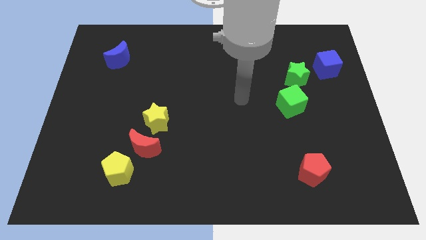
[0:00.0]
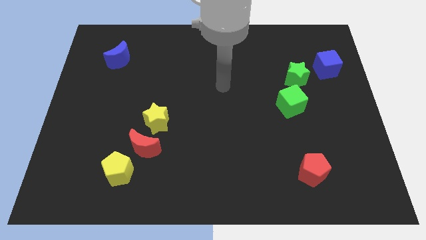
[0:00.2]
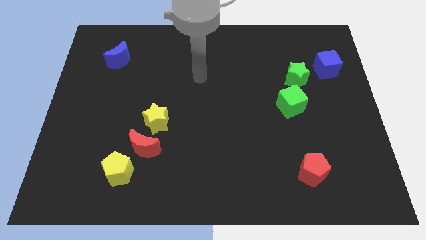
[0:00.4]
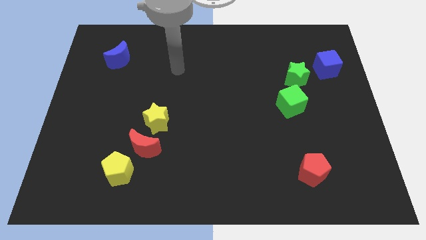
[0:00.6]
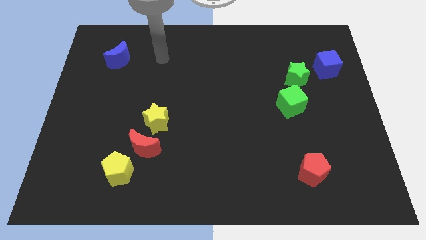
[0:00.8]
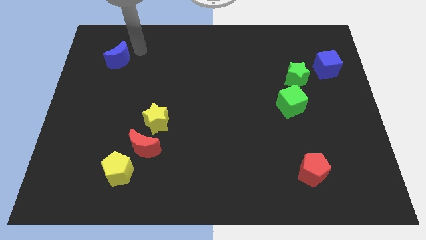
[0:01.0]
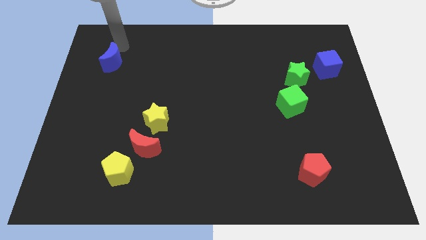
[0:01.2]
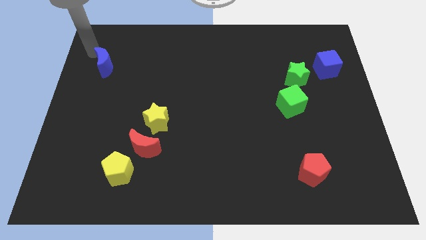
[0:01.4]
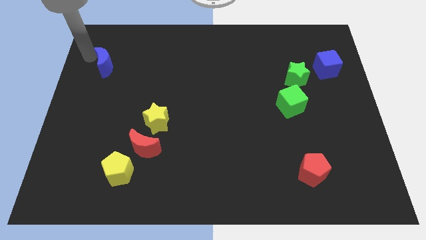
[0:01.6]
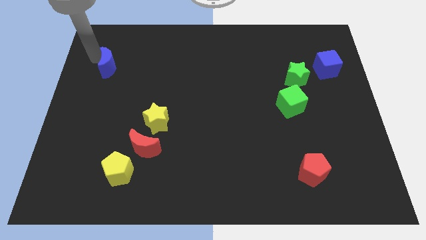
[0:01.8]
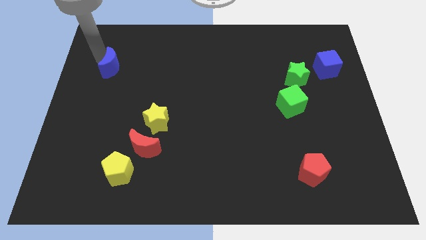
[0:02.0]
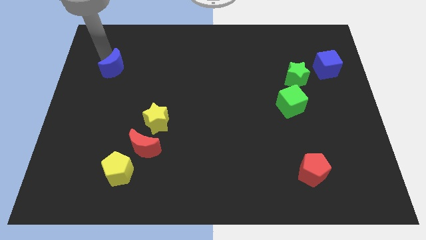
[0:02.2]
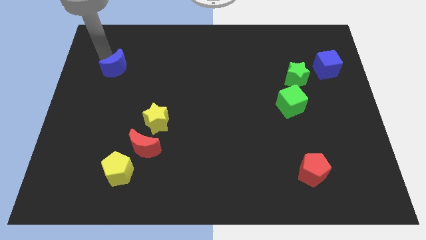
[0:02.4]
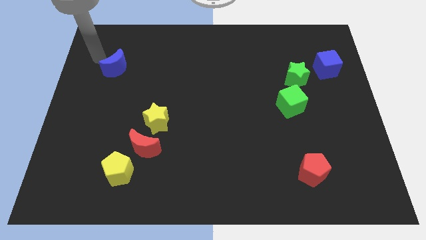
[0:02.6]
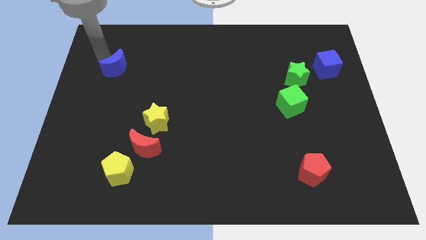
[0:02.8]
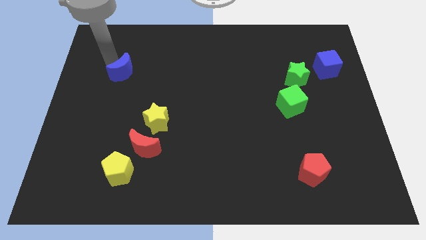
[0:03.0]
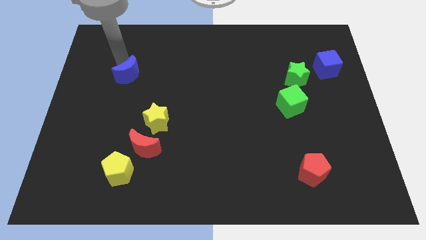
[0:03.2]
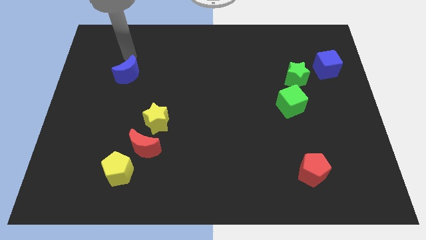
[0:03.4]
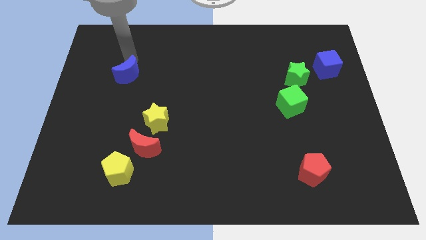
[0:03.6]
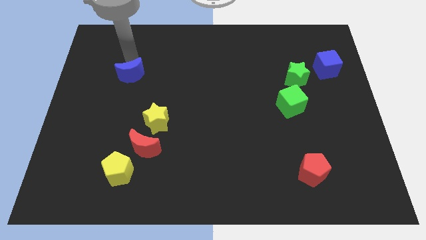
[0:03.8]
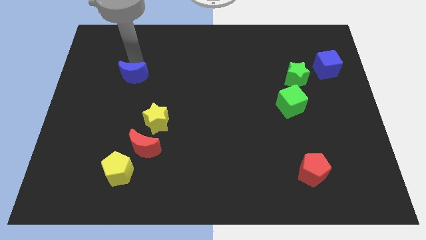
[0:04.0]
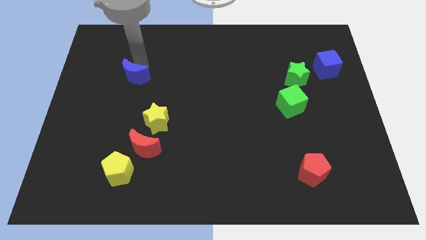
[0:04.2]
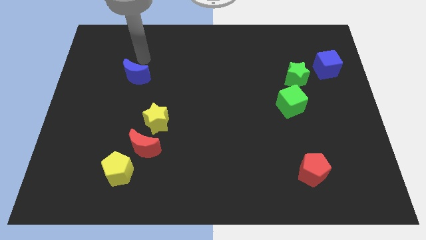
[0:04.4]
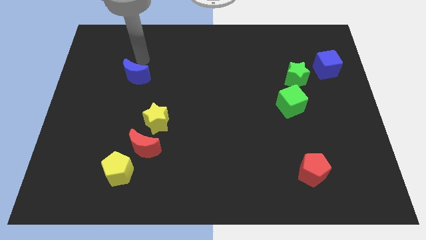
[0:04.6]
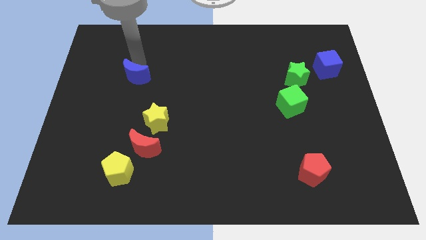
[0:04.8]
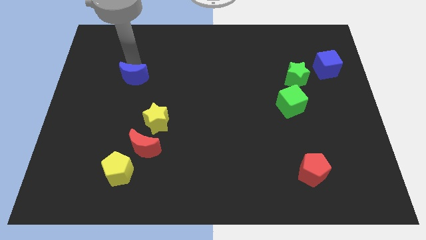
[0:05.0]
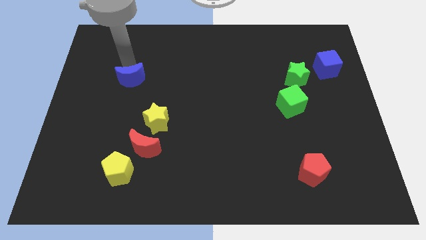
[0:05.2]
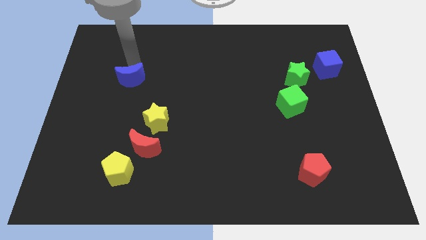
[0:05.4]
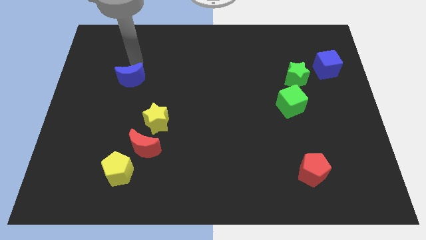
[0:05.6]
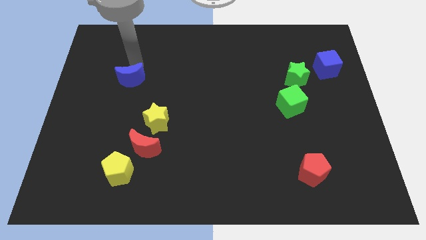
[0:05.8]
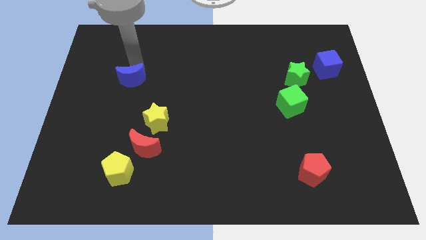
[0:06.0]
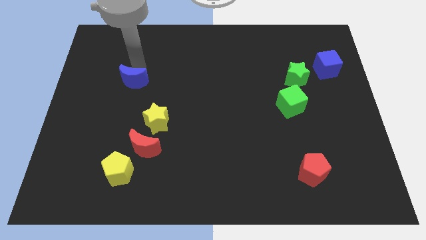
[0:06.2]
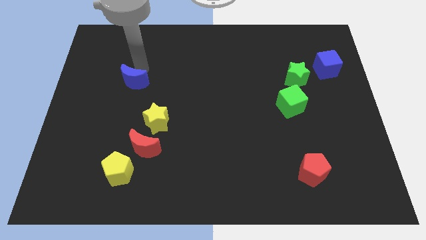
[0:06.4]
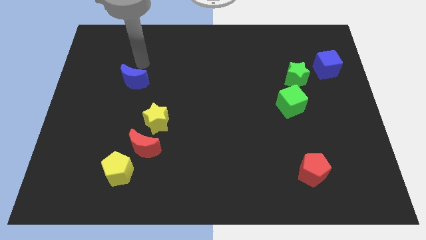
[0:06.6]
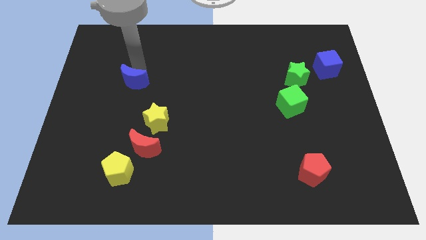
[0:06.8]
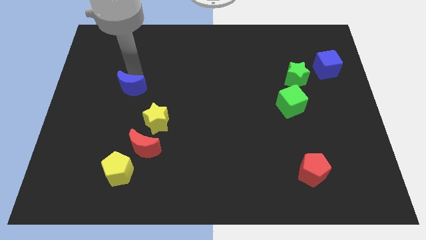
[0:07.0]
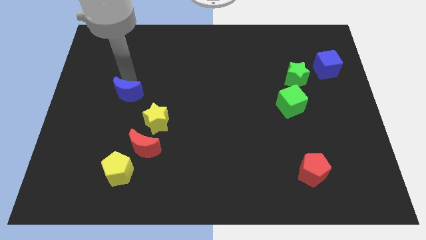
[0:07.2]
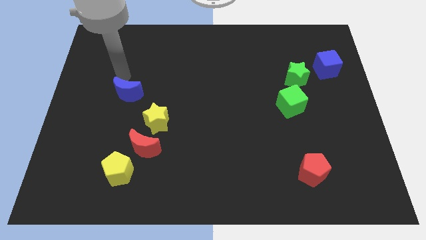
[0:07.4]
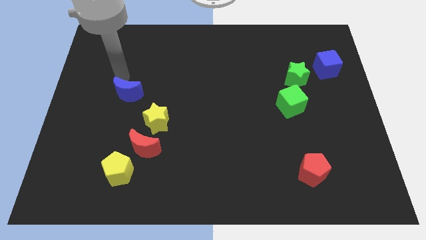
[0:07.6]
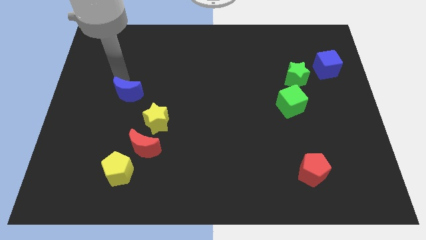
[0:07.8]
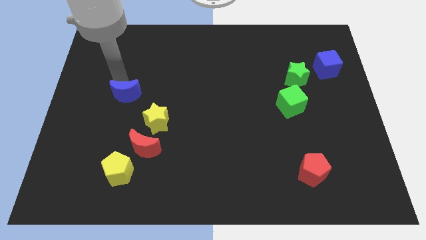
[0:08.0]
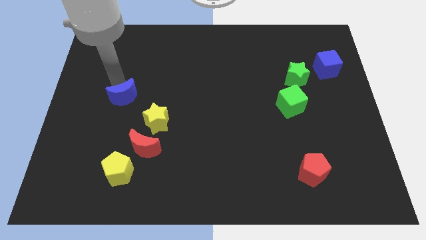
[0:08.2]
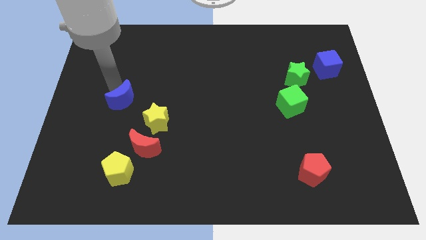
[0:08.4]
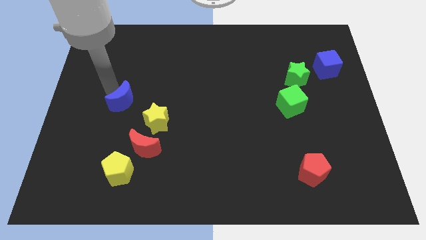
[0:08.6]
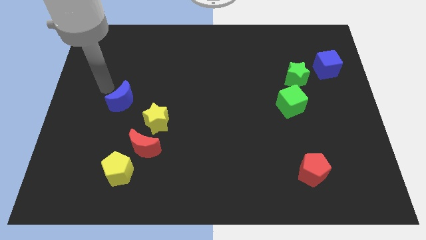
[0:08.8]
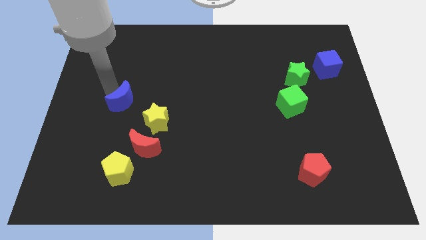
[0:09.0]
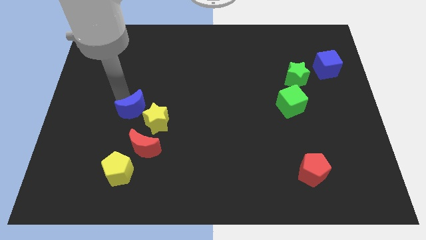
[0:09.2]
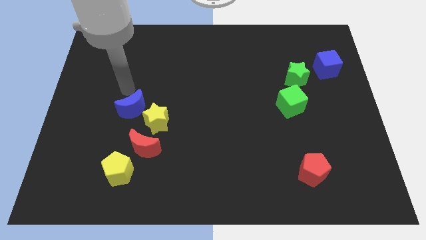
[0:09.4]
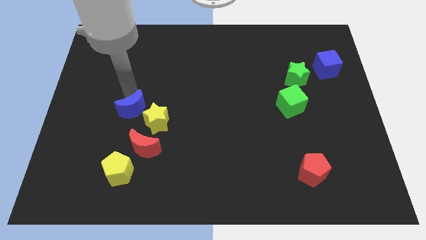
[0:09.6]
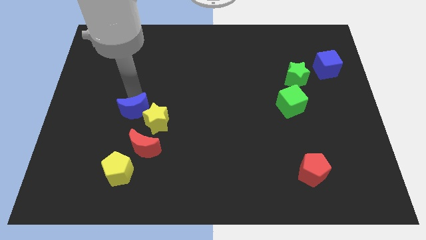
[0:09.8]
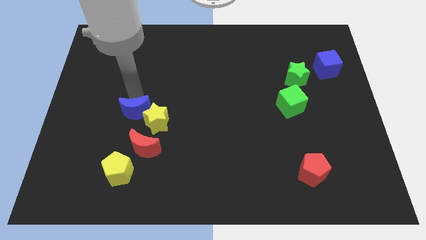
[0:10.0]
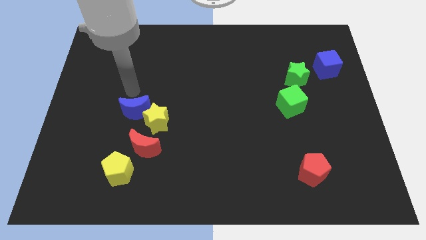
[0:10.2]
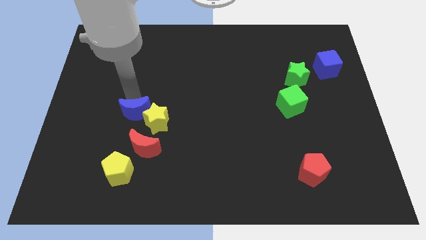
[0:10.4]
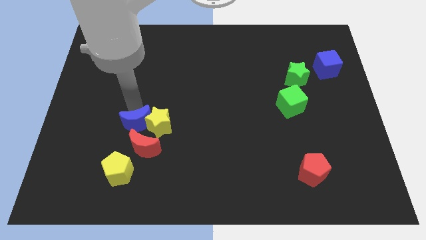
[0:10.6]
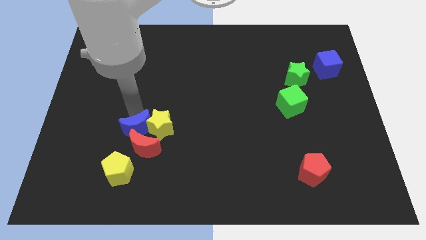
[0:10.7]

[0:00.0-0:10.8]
push the blue moon next to the red moon

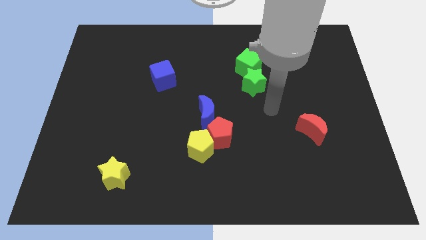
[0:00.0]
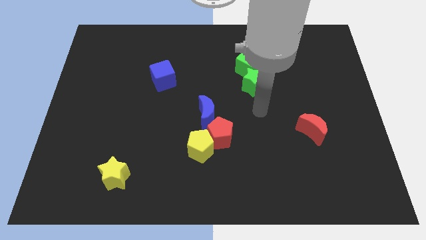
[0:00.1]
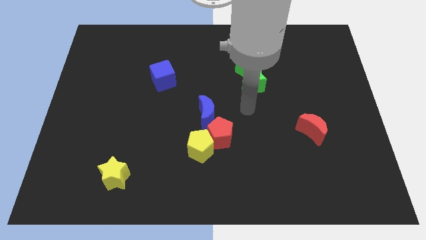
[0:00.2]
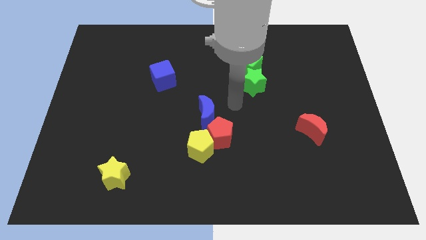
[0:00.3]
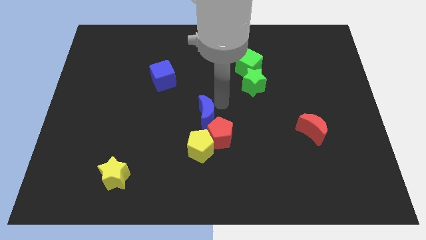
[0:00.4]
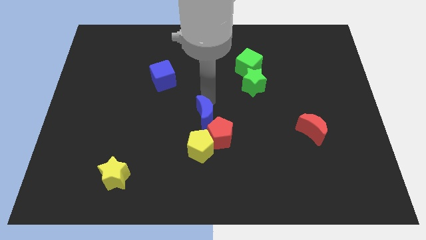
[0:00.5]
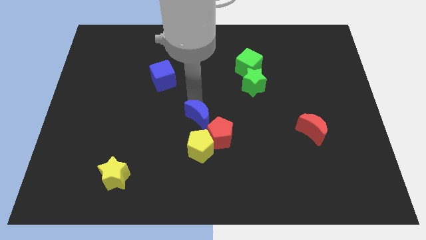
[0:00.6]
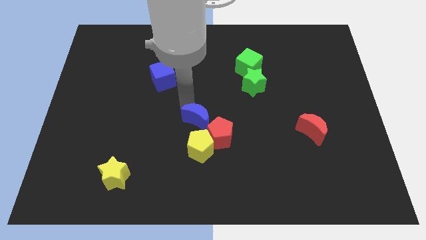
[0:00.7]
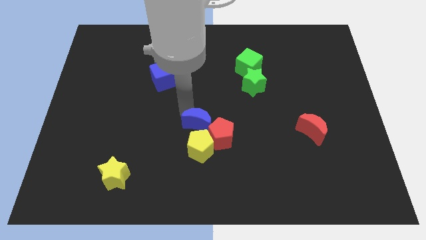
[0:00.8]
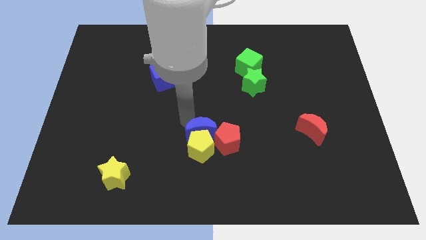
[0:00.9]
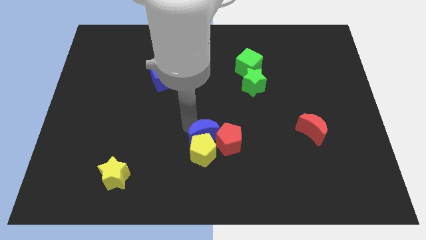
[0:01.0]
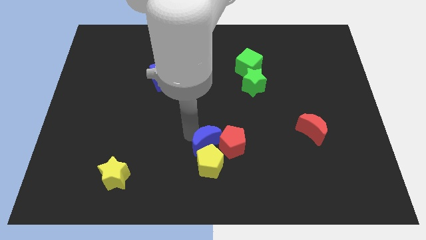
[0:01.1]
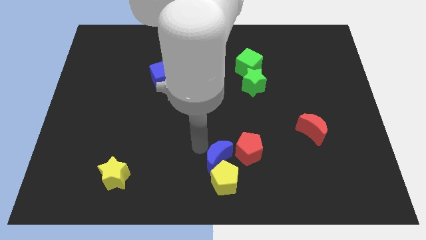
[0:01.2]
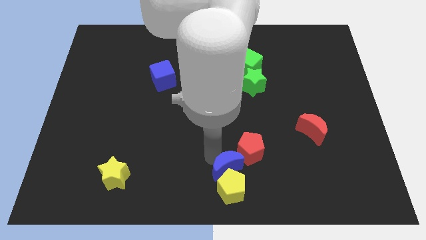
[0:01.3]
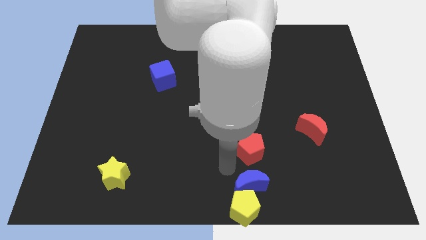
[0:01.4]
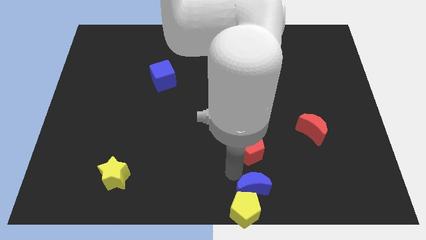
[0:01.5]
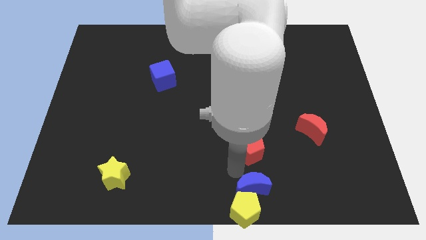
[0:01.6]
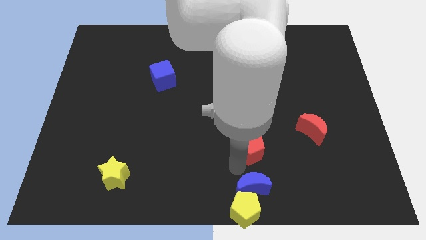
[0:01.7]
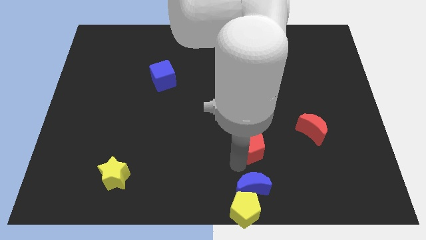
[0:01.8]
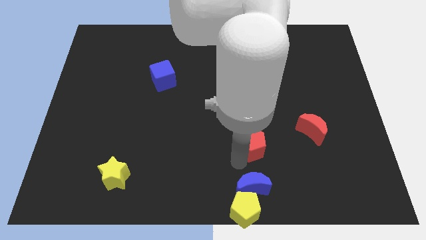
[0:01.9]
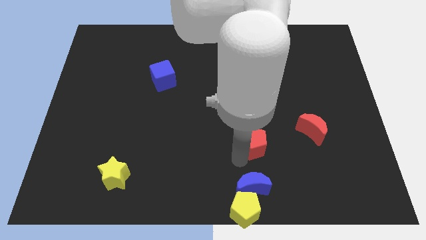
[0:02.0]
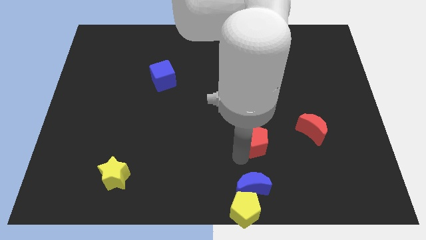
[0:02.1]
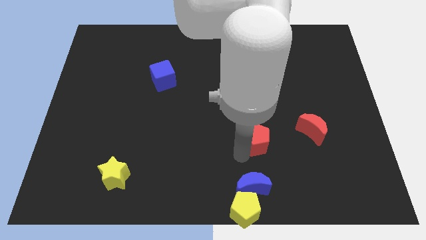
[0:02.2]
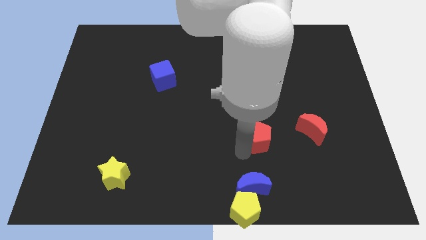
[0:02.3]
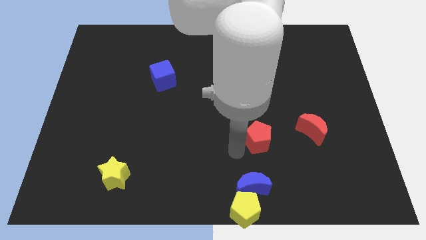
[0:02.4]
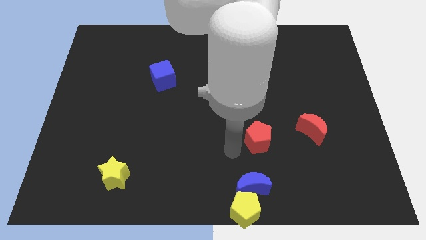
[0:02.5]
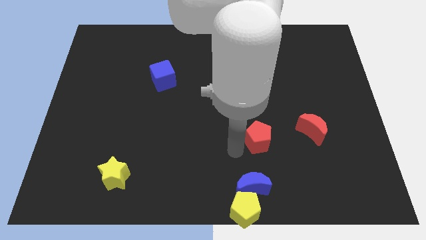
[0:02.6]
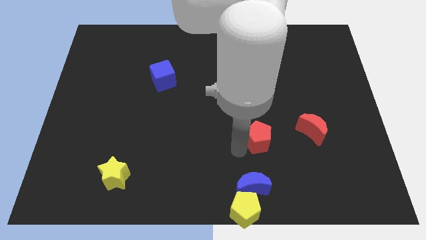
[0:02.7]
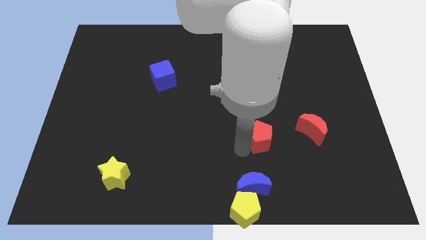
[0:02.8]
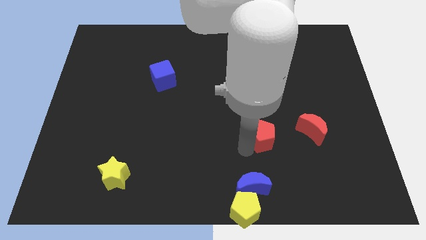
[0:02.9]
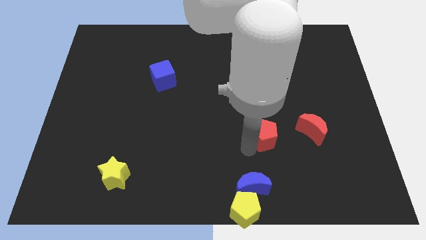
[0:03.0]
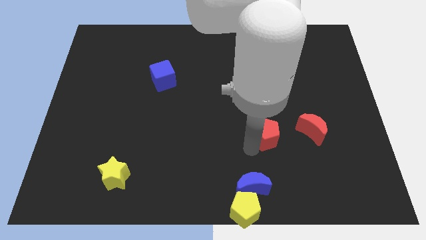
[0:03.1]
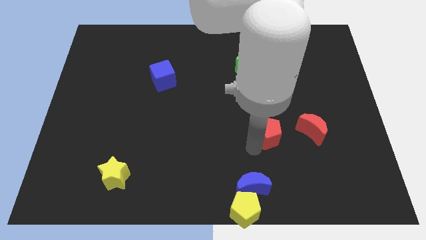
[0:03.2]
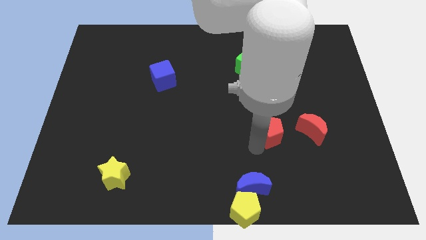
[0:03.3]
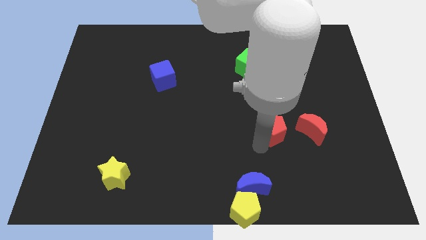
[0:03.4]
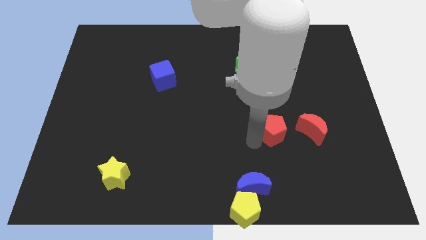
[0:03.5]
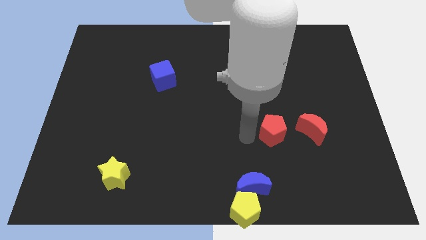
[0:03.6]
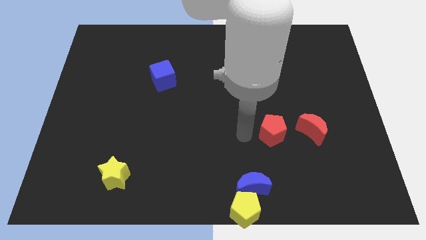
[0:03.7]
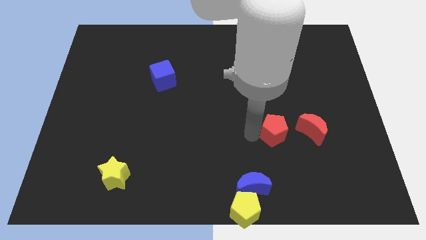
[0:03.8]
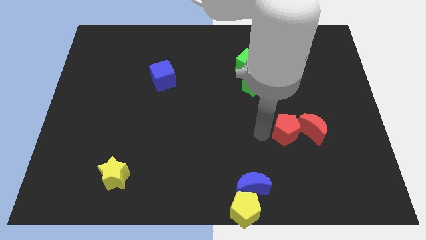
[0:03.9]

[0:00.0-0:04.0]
push the red pentagon next to the red moon
